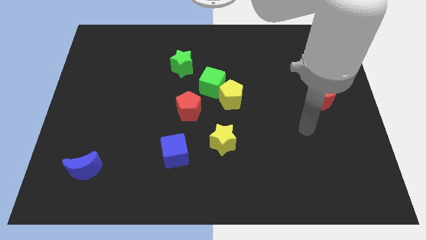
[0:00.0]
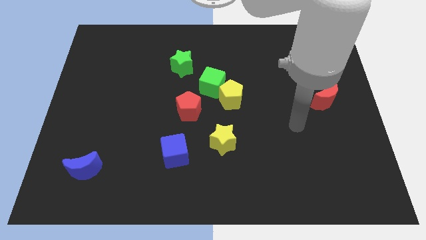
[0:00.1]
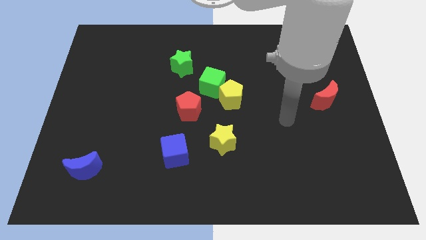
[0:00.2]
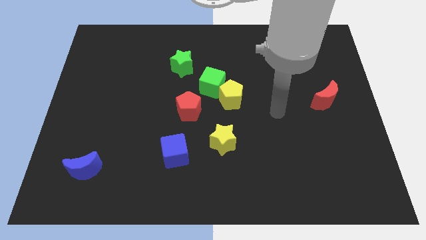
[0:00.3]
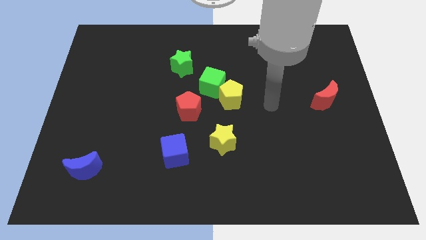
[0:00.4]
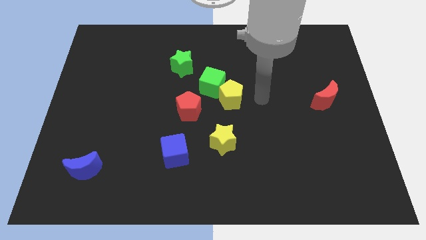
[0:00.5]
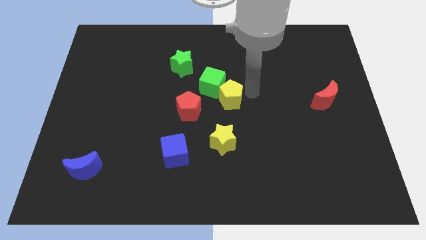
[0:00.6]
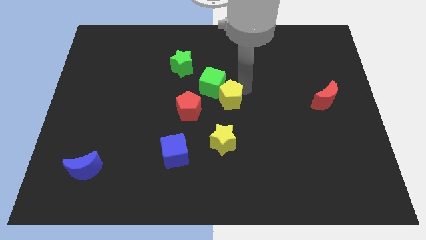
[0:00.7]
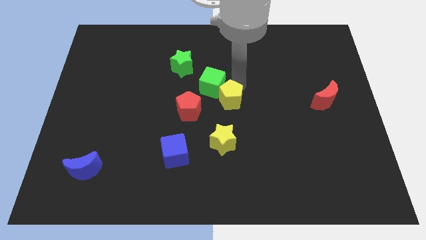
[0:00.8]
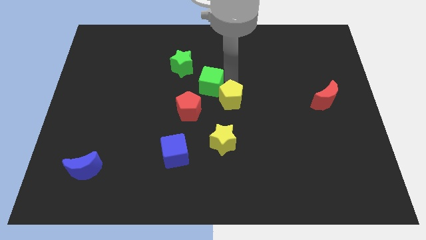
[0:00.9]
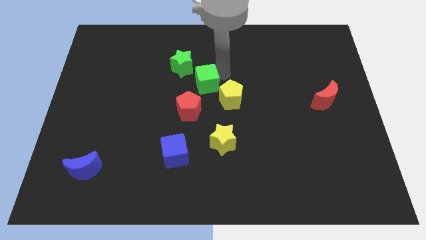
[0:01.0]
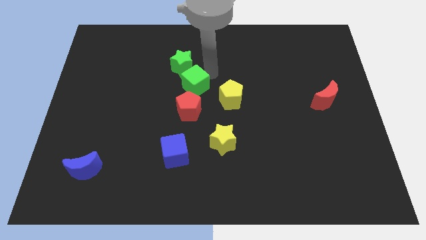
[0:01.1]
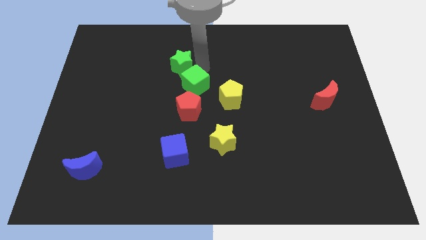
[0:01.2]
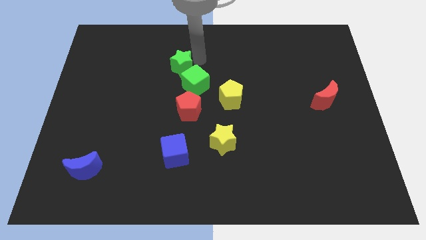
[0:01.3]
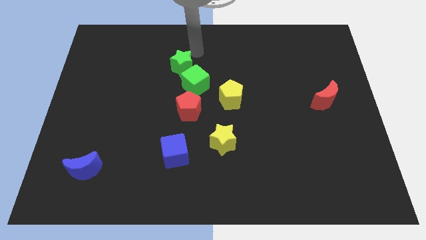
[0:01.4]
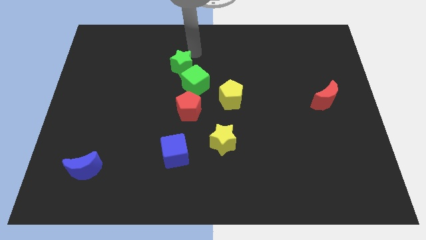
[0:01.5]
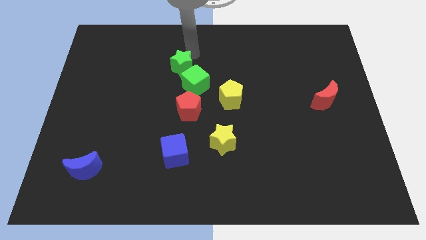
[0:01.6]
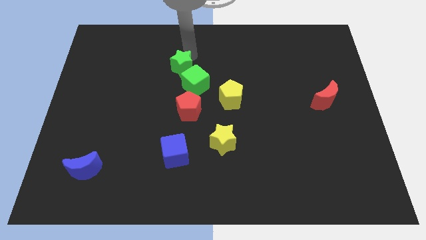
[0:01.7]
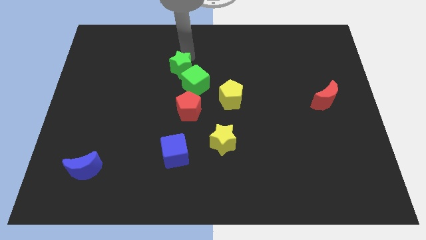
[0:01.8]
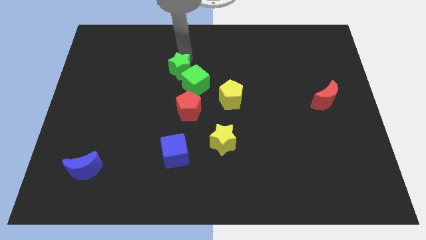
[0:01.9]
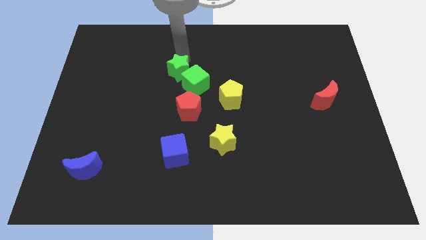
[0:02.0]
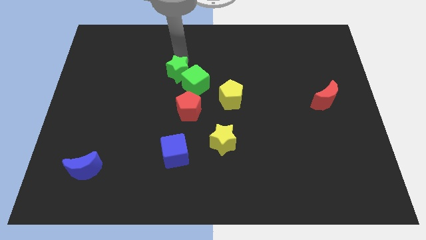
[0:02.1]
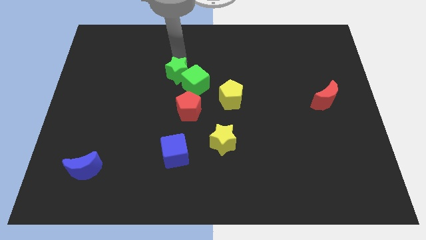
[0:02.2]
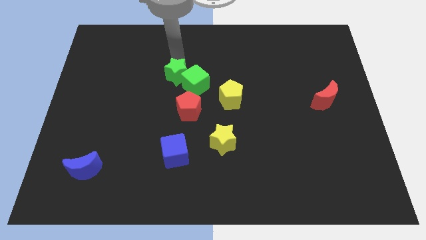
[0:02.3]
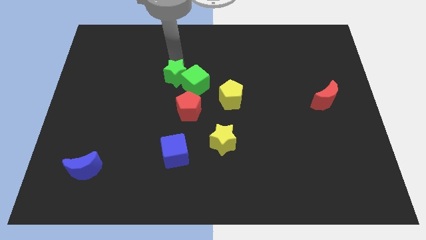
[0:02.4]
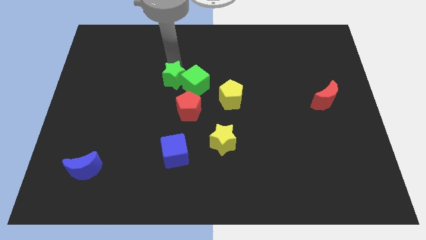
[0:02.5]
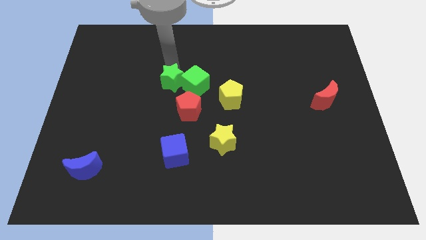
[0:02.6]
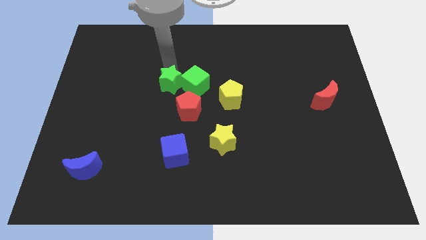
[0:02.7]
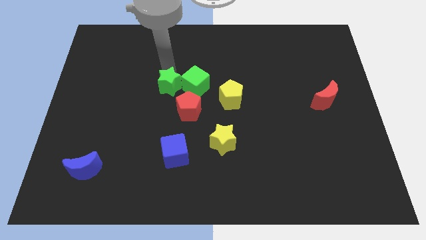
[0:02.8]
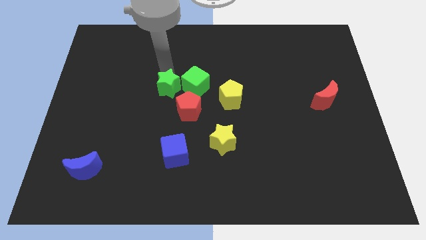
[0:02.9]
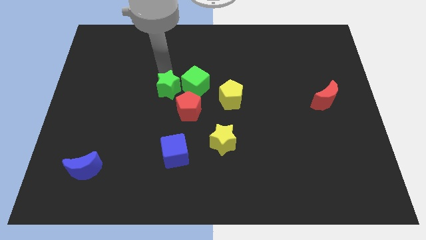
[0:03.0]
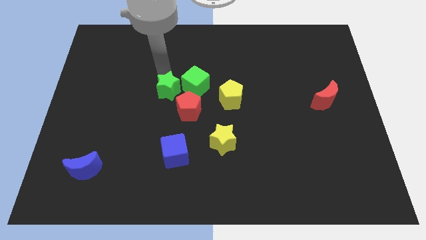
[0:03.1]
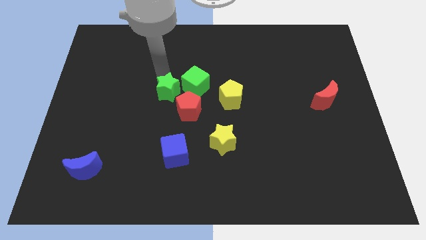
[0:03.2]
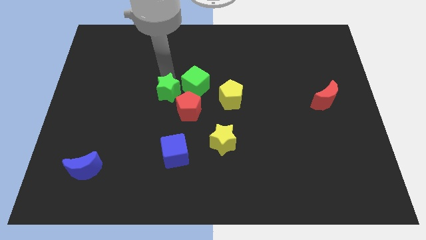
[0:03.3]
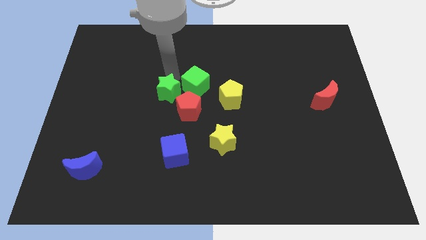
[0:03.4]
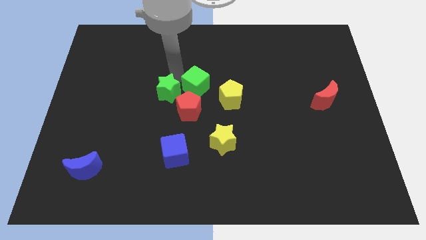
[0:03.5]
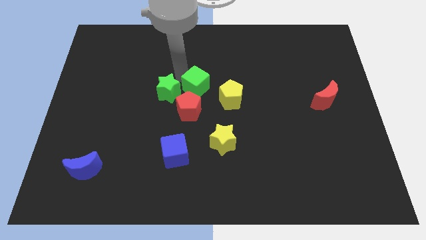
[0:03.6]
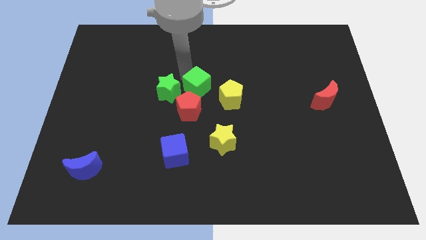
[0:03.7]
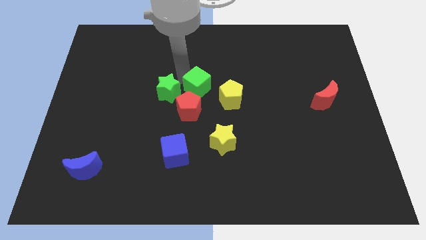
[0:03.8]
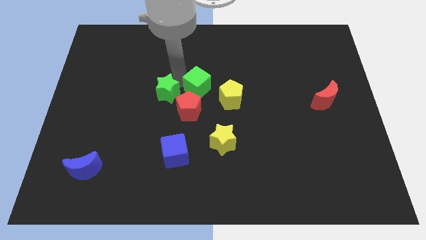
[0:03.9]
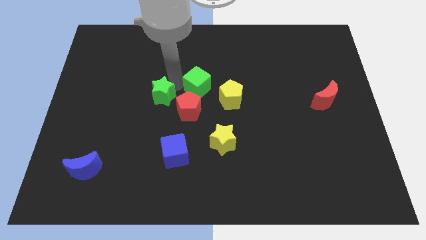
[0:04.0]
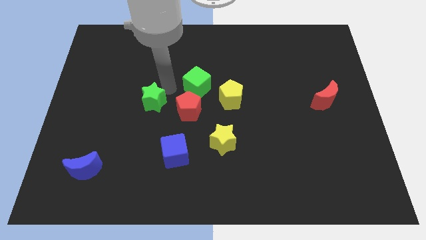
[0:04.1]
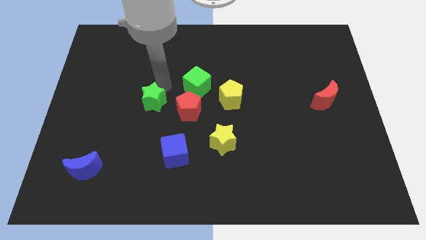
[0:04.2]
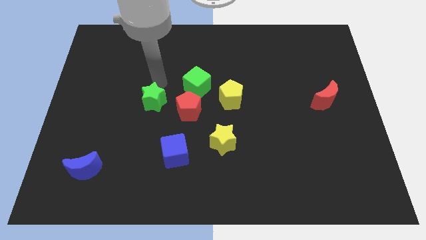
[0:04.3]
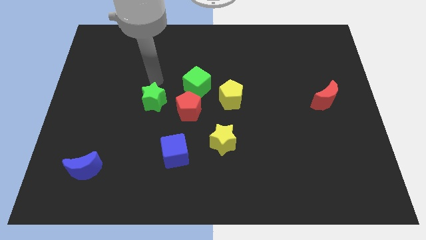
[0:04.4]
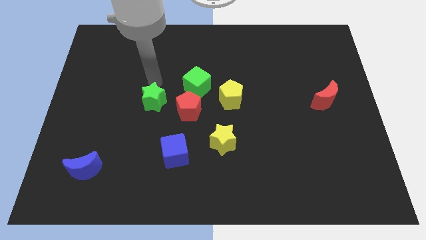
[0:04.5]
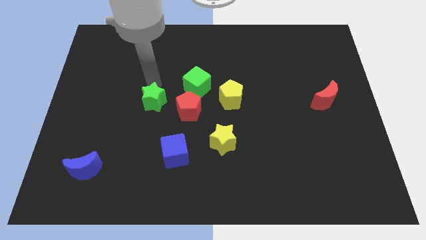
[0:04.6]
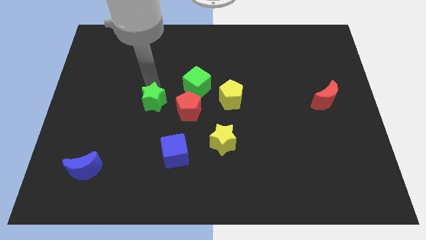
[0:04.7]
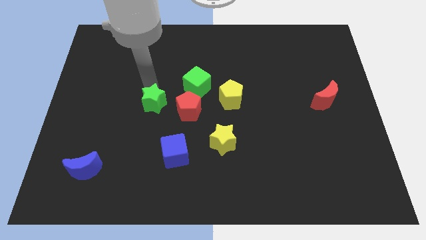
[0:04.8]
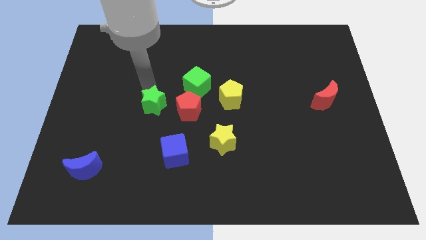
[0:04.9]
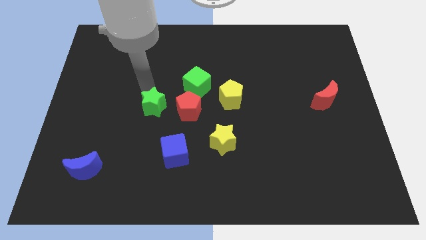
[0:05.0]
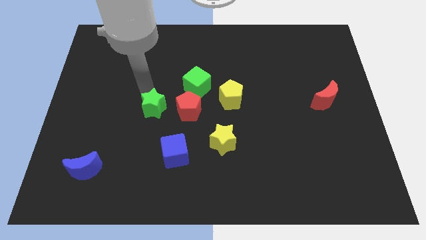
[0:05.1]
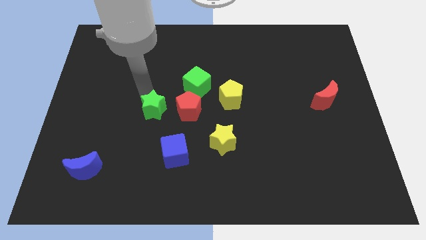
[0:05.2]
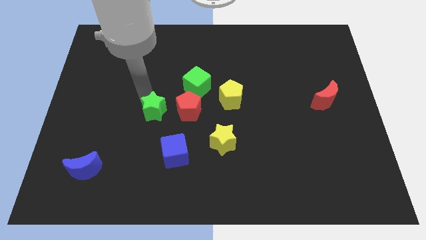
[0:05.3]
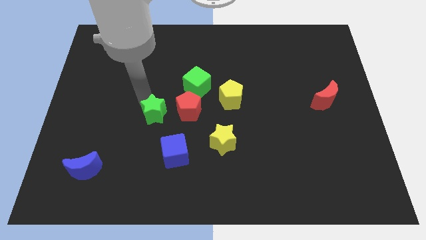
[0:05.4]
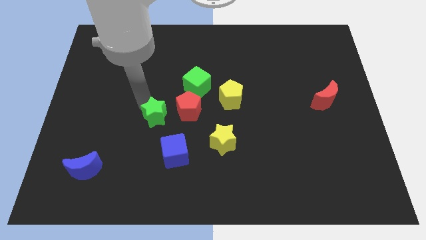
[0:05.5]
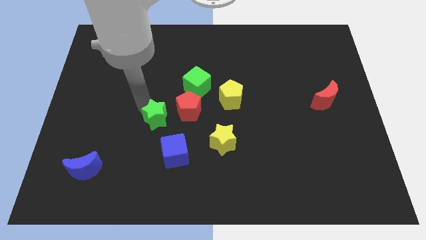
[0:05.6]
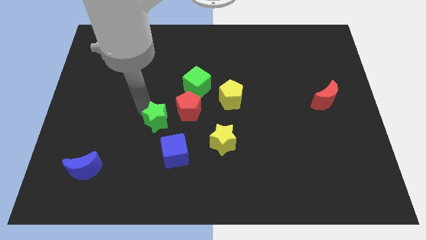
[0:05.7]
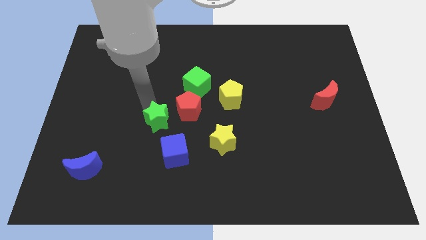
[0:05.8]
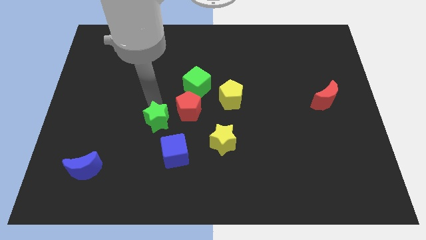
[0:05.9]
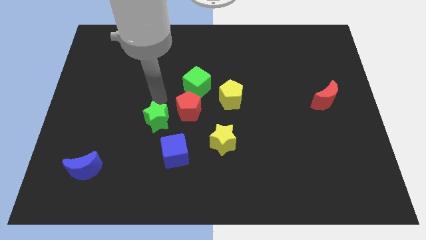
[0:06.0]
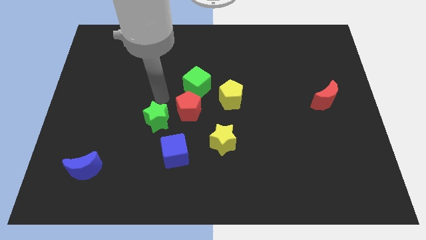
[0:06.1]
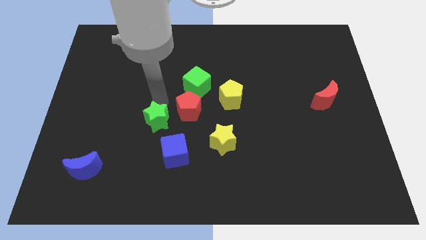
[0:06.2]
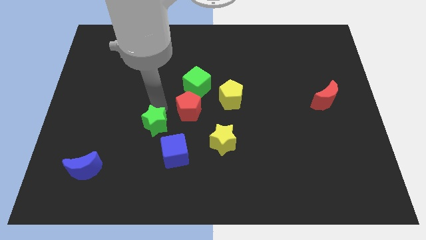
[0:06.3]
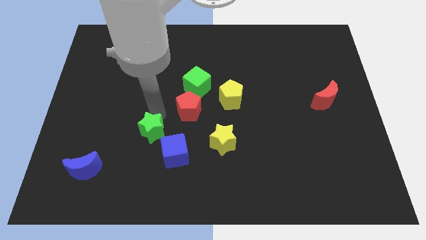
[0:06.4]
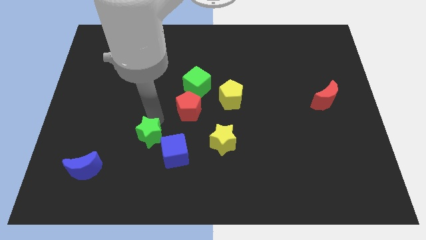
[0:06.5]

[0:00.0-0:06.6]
move the green star downwards

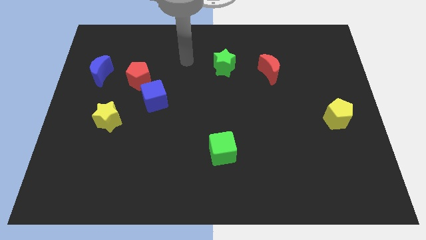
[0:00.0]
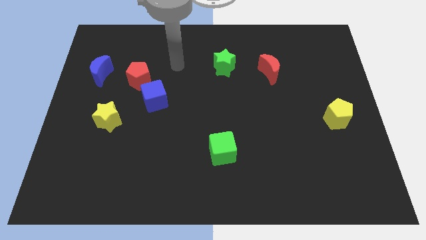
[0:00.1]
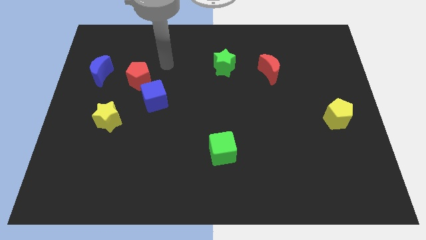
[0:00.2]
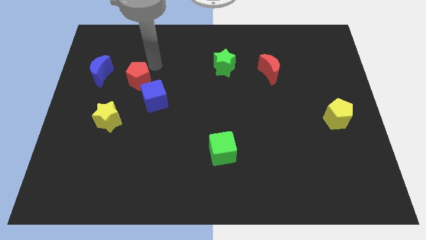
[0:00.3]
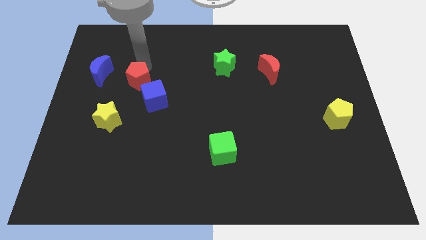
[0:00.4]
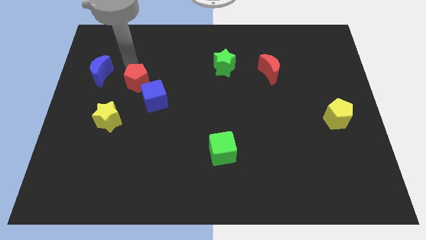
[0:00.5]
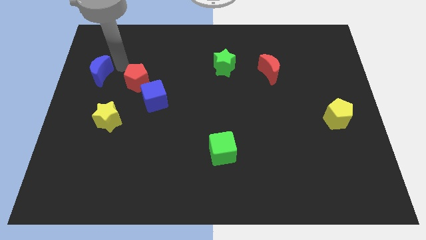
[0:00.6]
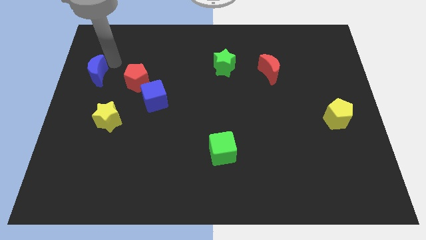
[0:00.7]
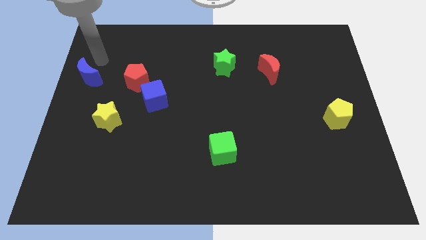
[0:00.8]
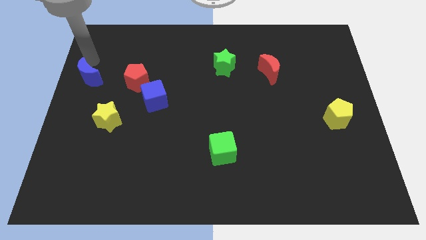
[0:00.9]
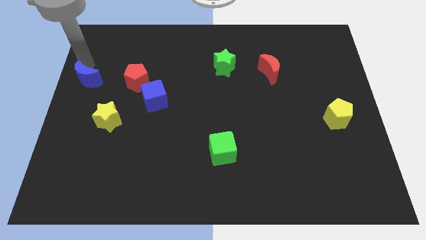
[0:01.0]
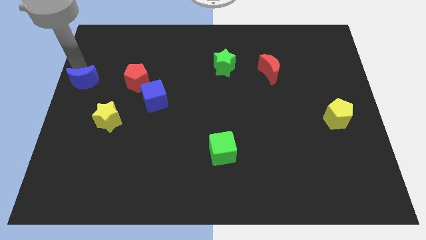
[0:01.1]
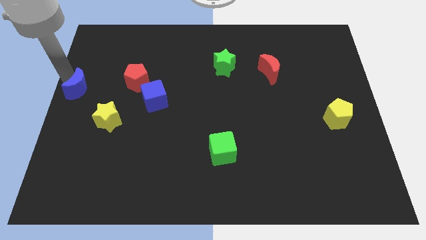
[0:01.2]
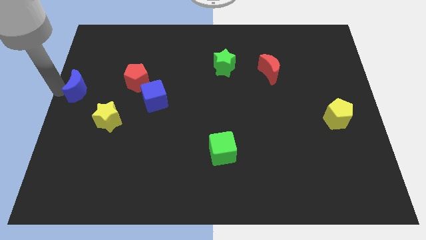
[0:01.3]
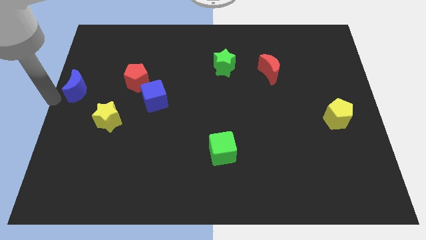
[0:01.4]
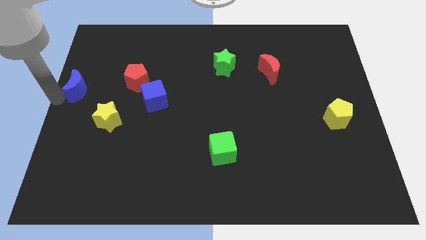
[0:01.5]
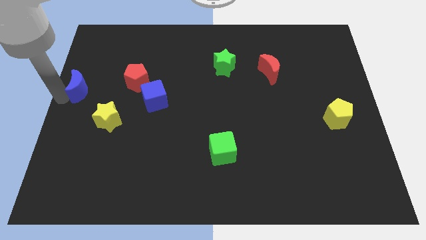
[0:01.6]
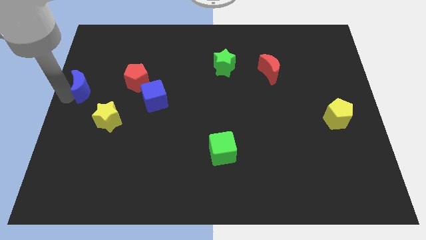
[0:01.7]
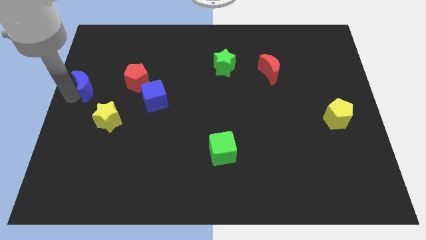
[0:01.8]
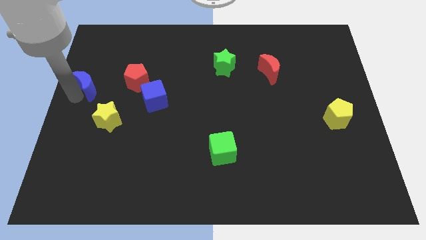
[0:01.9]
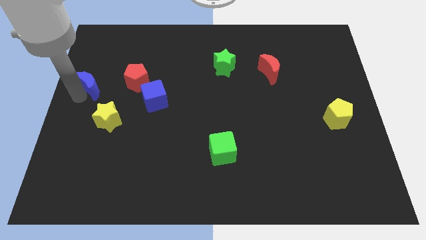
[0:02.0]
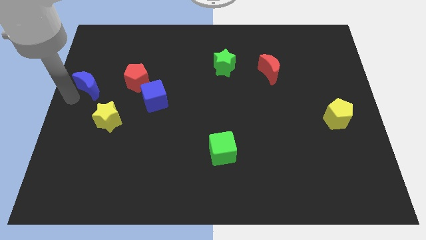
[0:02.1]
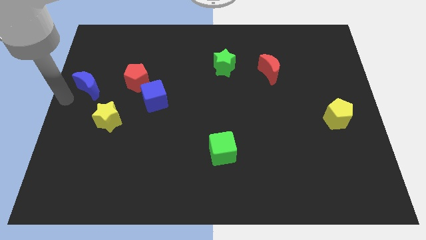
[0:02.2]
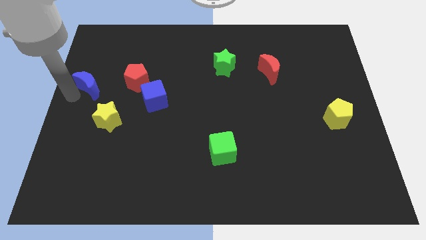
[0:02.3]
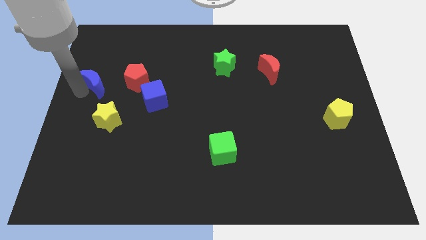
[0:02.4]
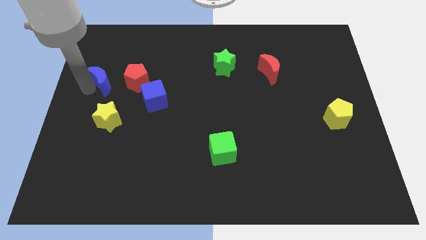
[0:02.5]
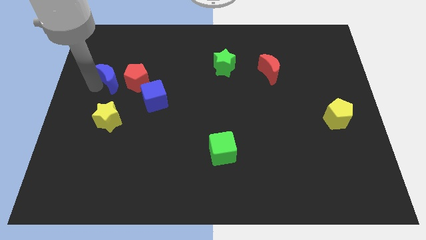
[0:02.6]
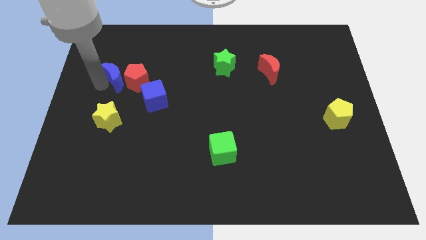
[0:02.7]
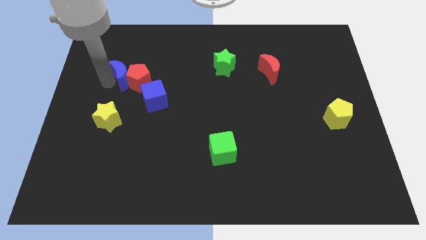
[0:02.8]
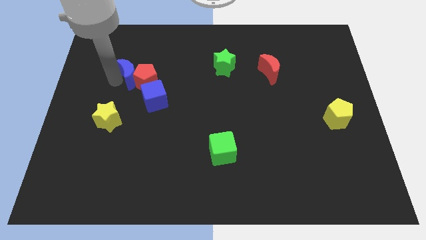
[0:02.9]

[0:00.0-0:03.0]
slightly push the blue moon right
